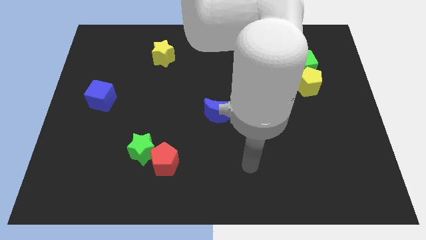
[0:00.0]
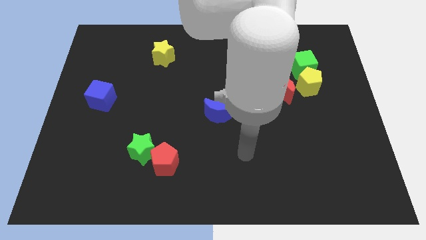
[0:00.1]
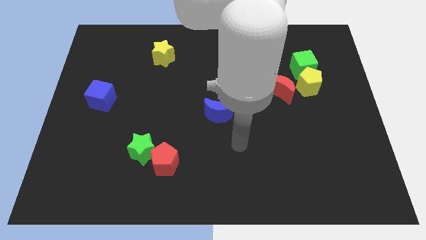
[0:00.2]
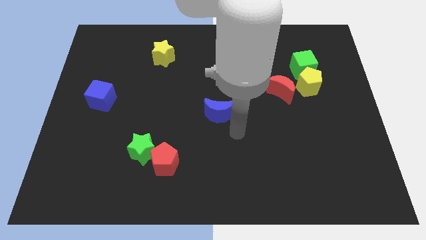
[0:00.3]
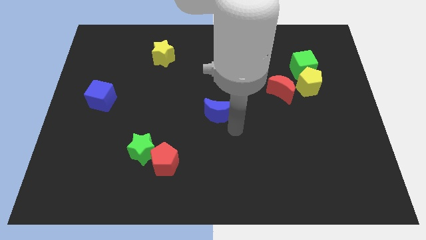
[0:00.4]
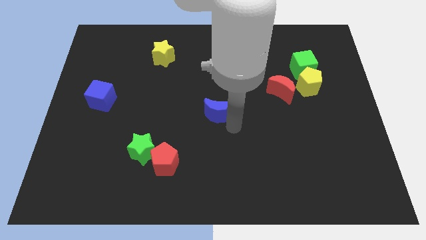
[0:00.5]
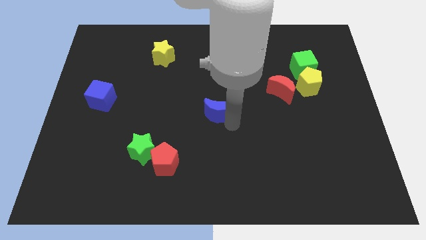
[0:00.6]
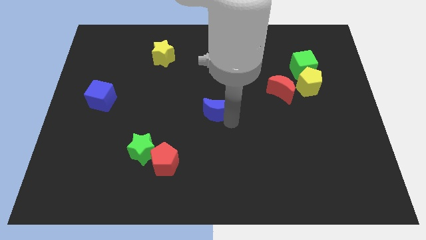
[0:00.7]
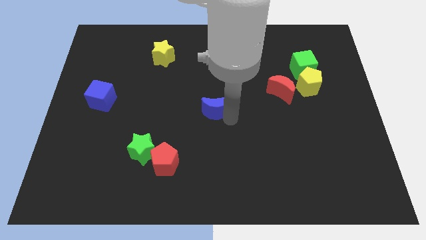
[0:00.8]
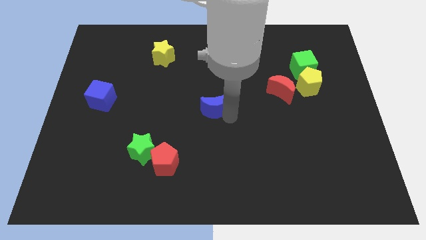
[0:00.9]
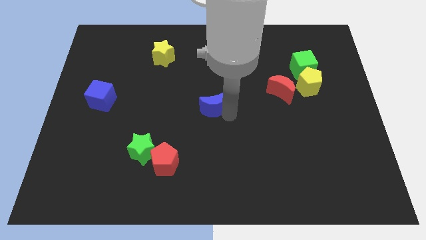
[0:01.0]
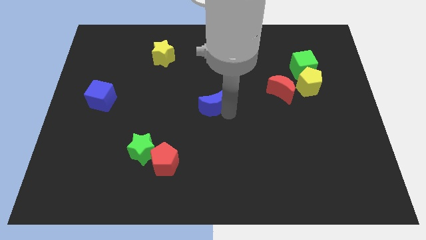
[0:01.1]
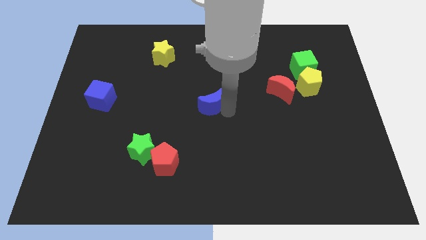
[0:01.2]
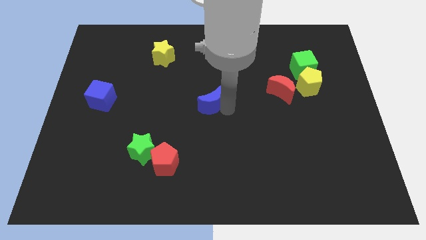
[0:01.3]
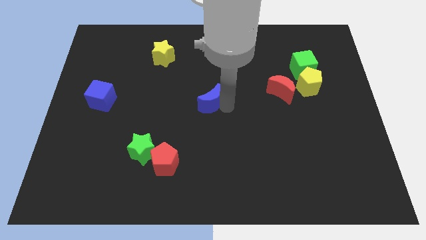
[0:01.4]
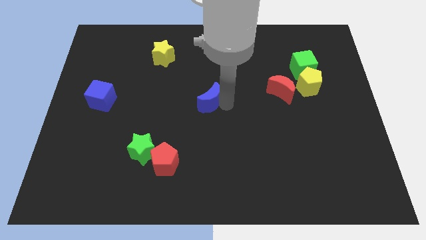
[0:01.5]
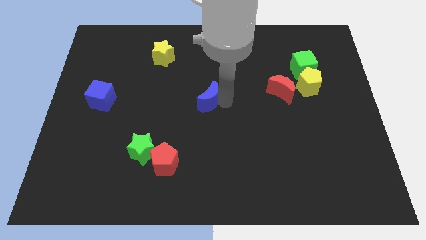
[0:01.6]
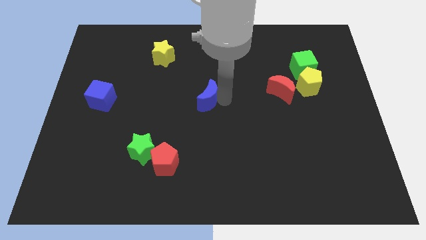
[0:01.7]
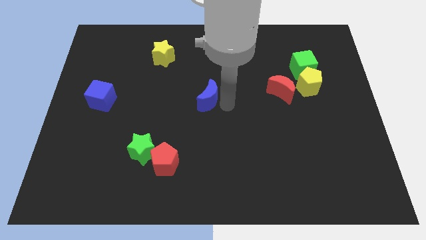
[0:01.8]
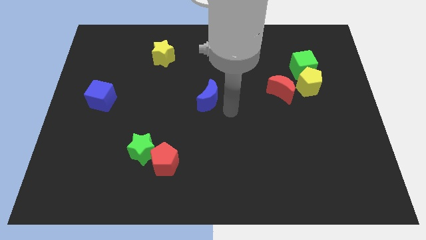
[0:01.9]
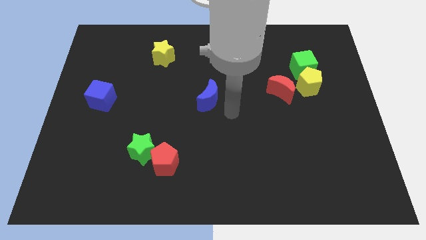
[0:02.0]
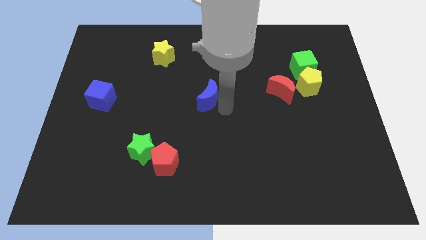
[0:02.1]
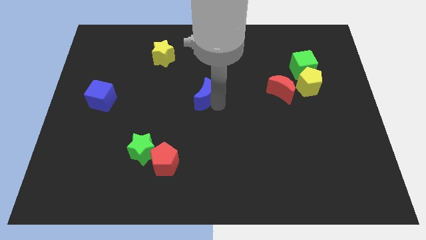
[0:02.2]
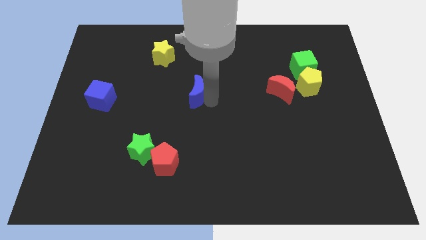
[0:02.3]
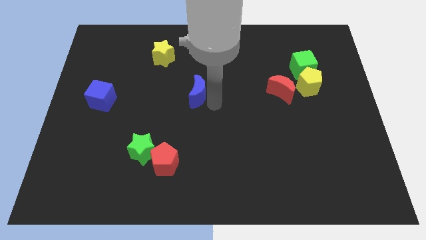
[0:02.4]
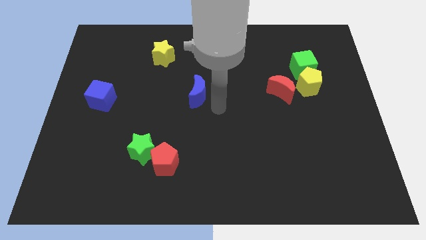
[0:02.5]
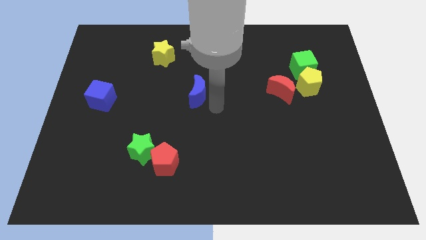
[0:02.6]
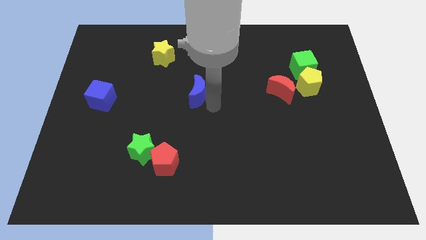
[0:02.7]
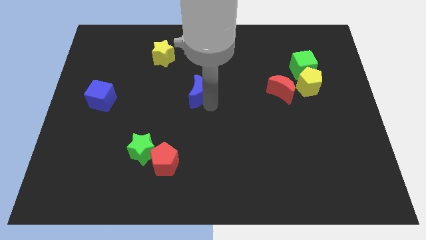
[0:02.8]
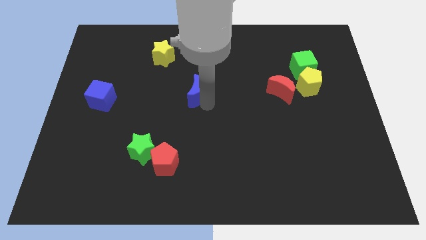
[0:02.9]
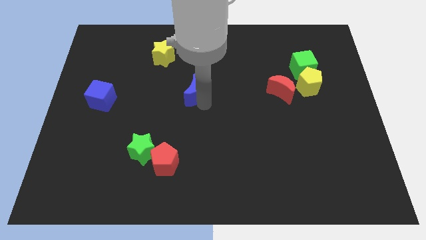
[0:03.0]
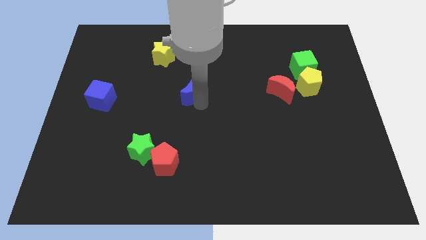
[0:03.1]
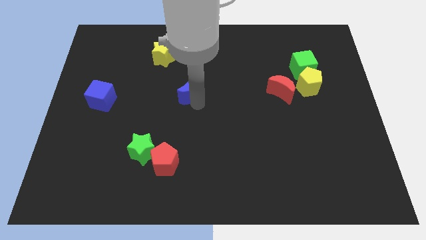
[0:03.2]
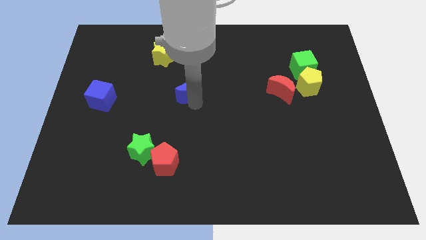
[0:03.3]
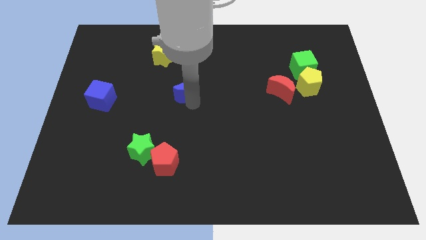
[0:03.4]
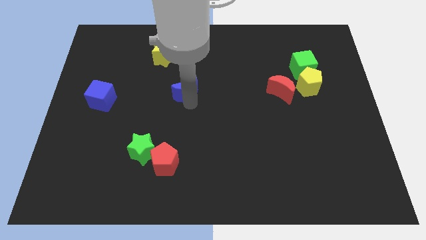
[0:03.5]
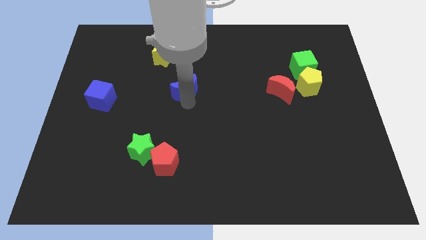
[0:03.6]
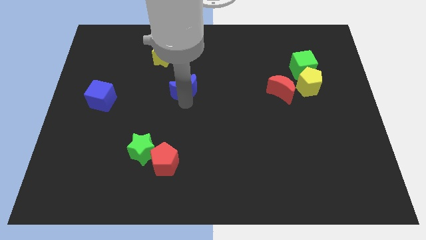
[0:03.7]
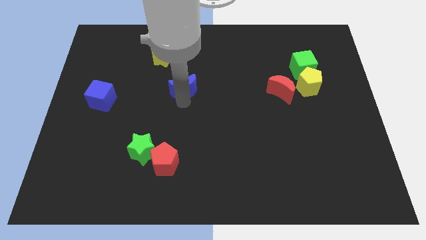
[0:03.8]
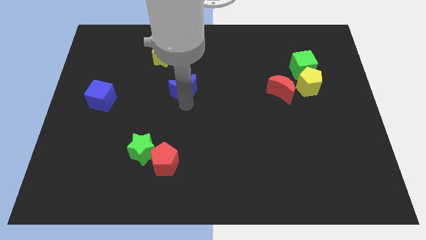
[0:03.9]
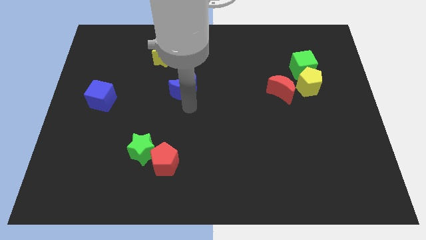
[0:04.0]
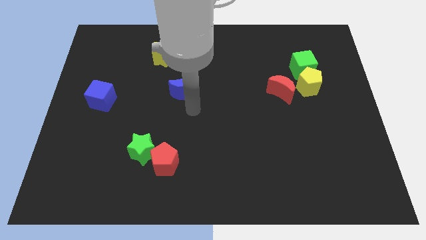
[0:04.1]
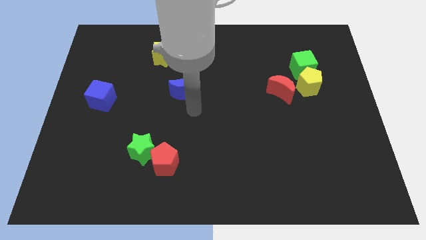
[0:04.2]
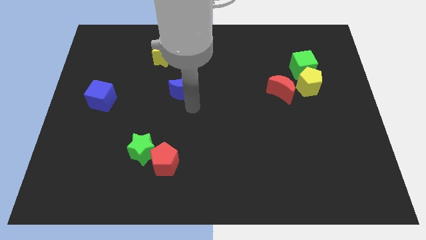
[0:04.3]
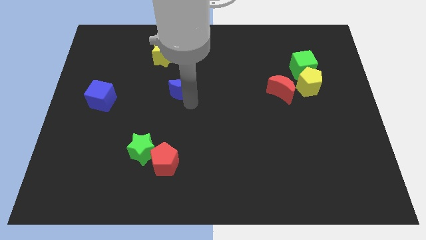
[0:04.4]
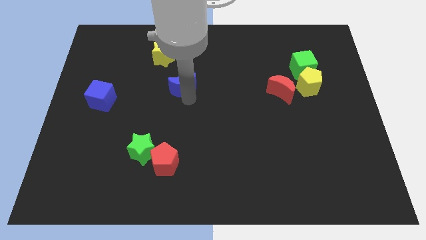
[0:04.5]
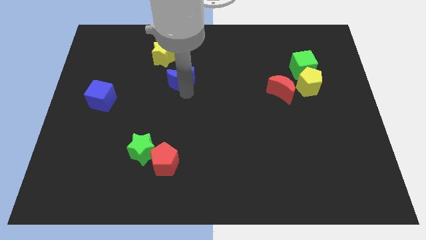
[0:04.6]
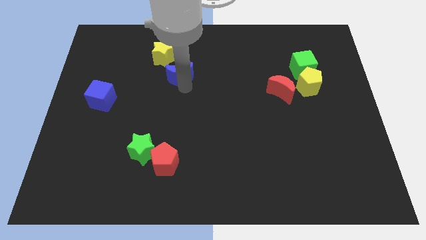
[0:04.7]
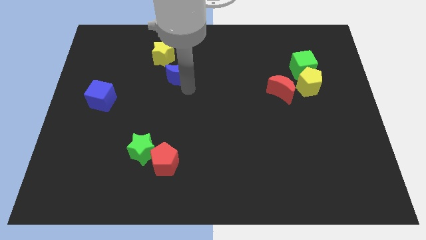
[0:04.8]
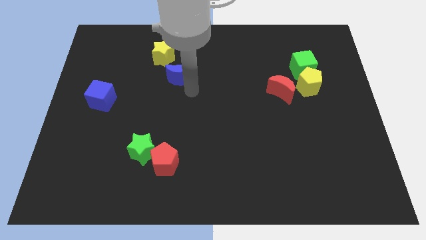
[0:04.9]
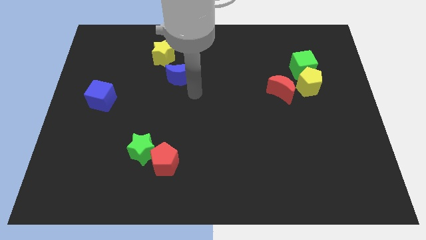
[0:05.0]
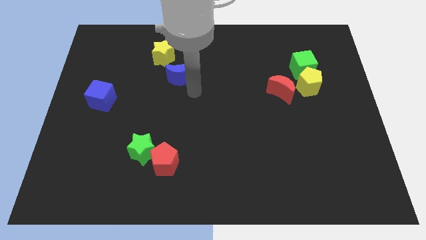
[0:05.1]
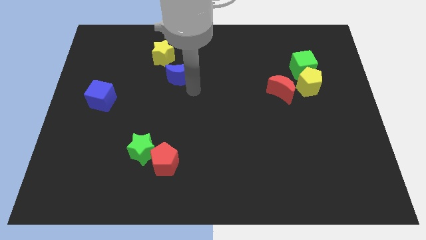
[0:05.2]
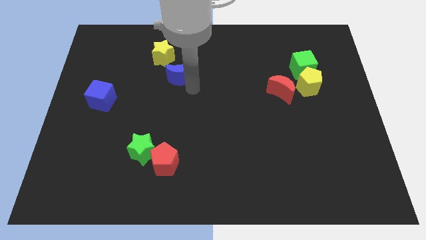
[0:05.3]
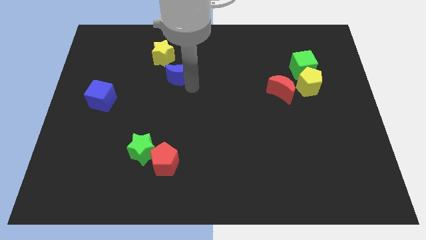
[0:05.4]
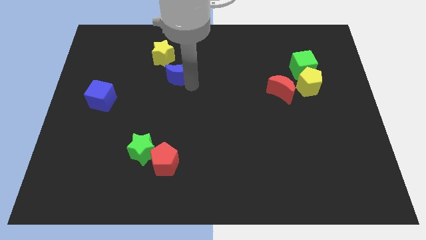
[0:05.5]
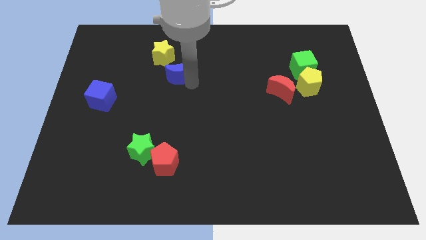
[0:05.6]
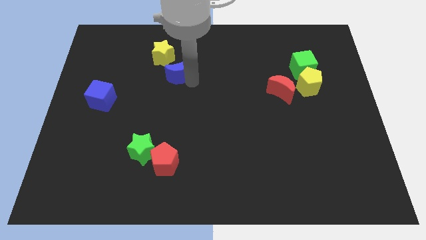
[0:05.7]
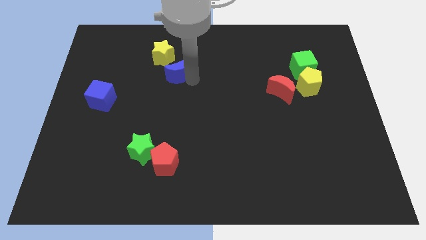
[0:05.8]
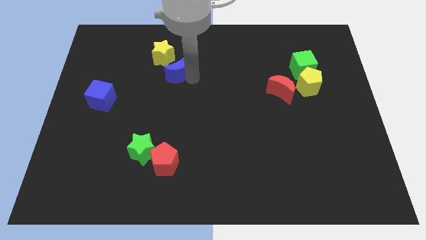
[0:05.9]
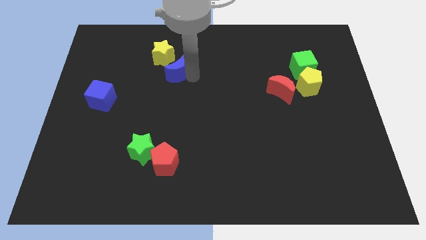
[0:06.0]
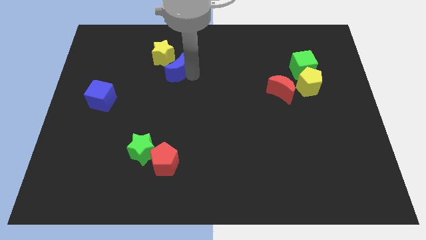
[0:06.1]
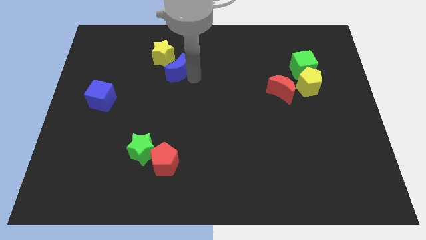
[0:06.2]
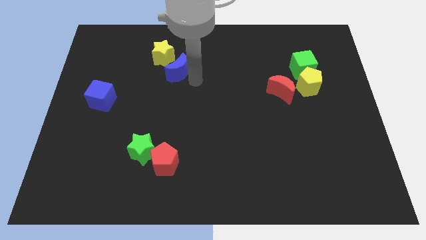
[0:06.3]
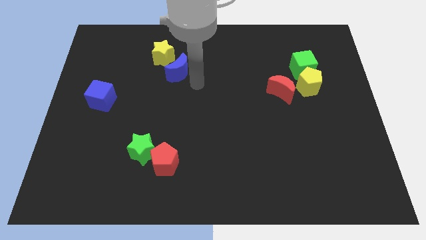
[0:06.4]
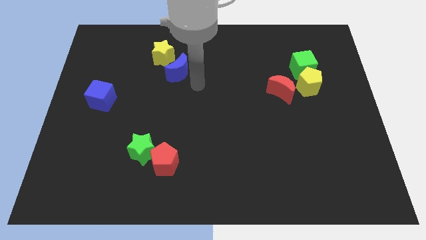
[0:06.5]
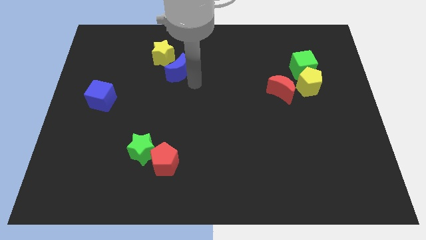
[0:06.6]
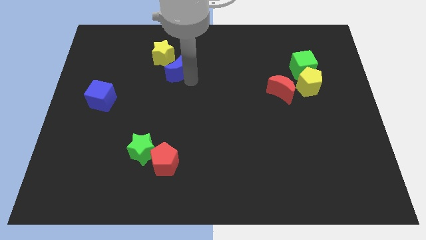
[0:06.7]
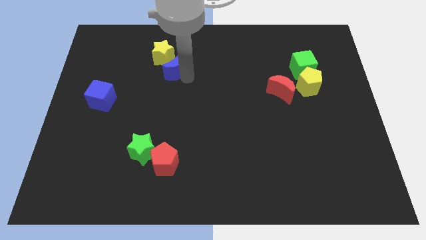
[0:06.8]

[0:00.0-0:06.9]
slide the blue moon next to the yellow star

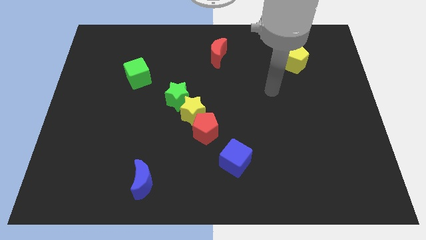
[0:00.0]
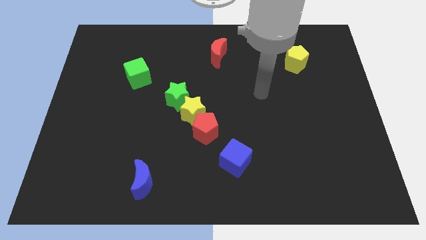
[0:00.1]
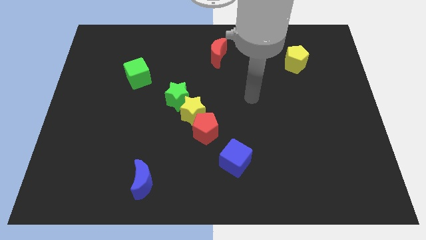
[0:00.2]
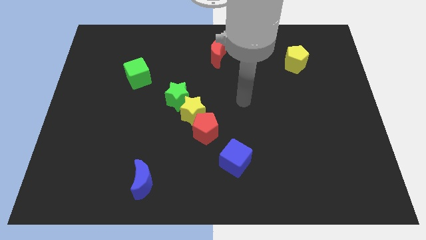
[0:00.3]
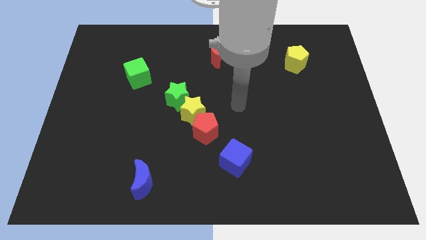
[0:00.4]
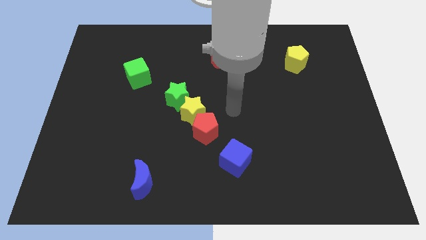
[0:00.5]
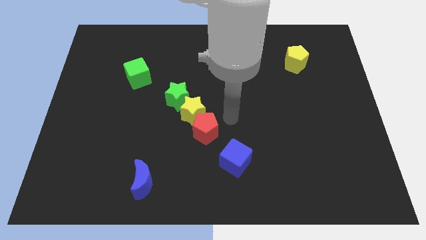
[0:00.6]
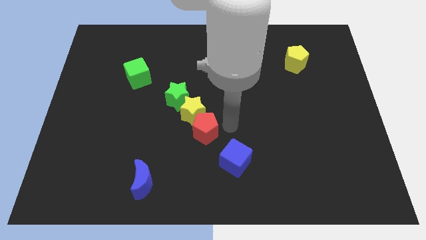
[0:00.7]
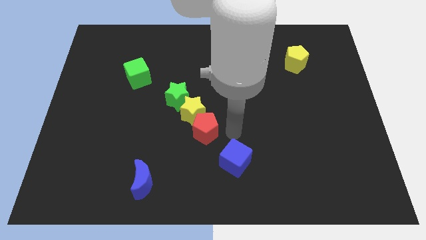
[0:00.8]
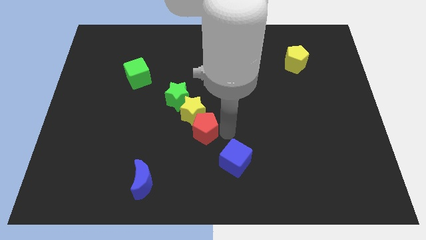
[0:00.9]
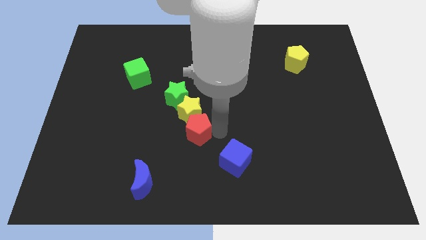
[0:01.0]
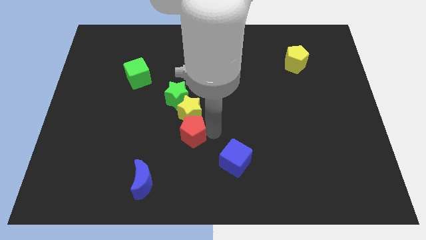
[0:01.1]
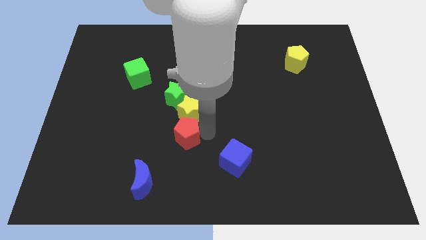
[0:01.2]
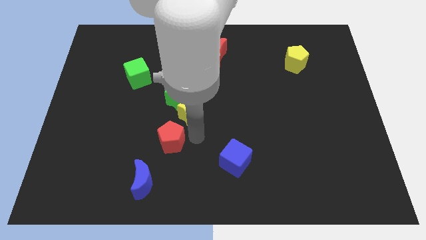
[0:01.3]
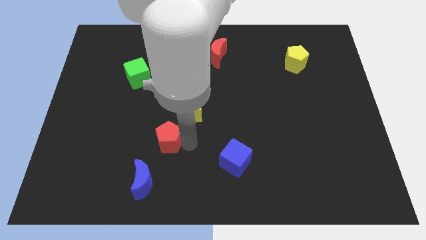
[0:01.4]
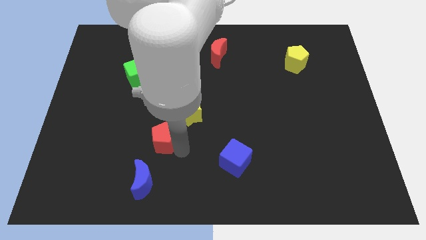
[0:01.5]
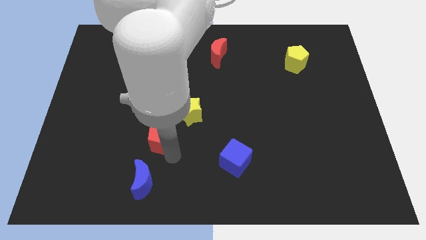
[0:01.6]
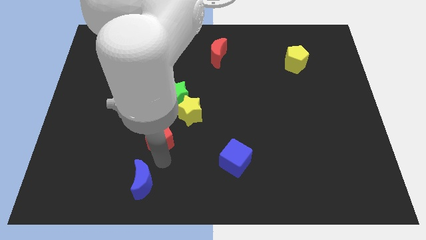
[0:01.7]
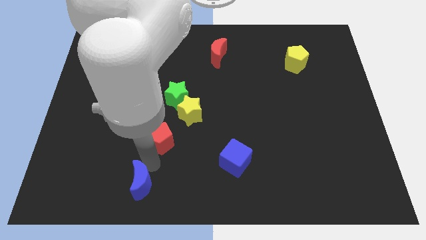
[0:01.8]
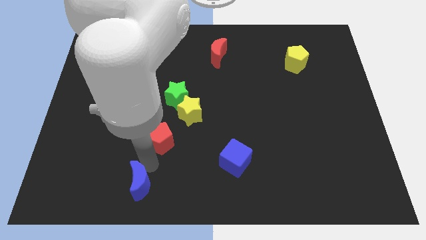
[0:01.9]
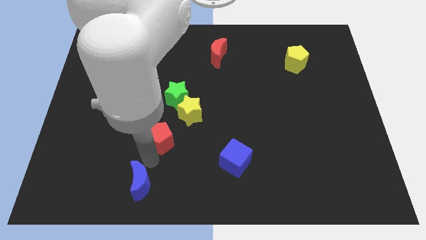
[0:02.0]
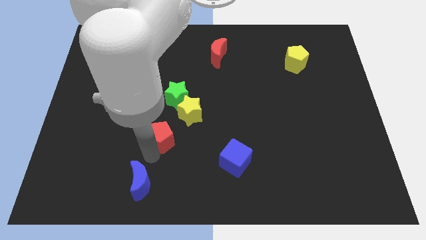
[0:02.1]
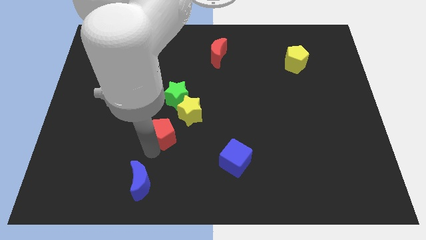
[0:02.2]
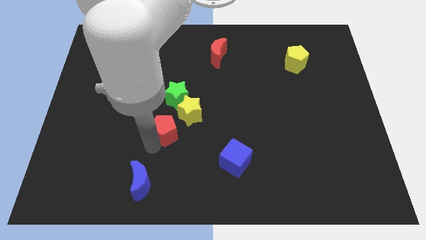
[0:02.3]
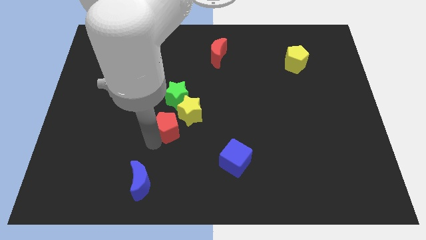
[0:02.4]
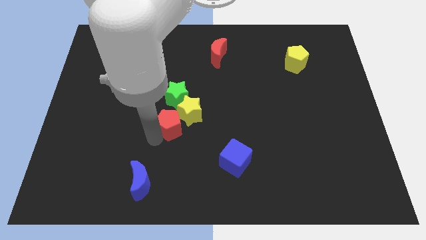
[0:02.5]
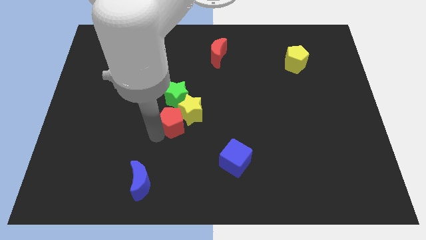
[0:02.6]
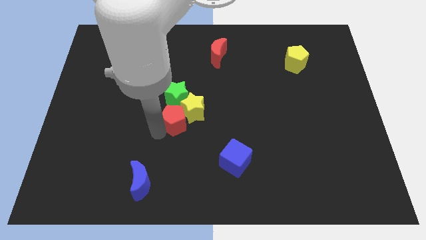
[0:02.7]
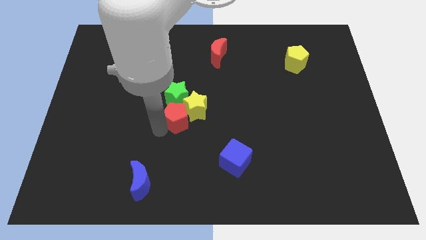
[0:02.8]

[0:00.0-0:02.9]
put the red pentagon to the green star
